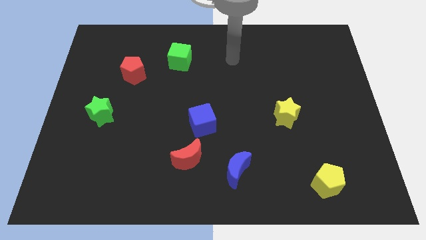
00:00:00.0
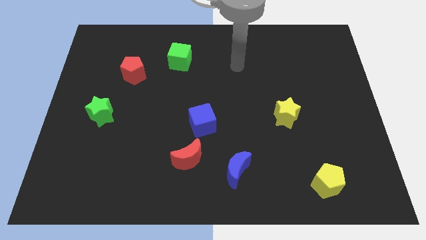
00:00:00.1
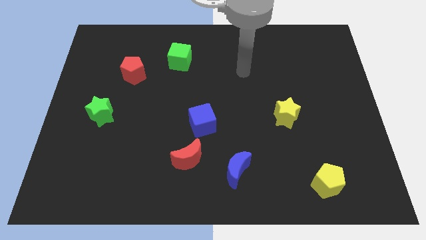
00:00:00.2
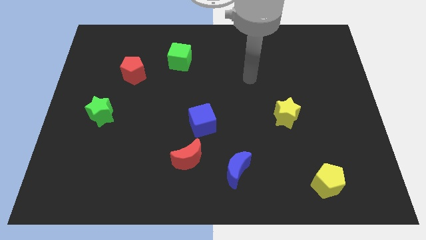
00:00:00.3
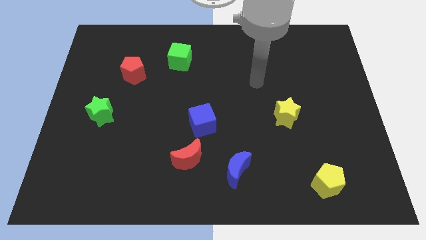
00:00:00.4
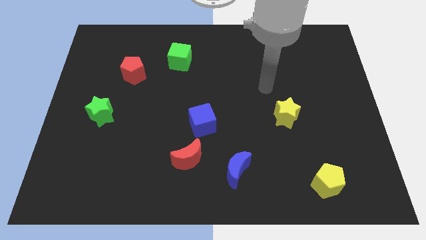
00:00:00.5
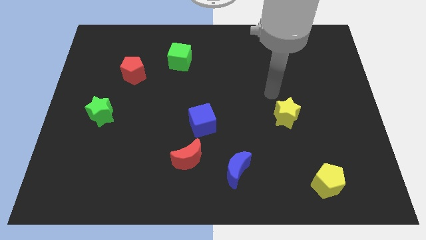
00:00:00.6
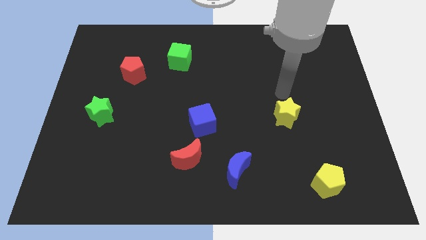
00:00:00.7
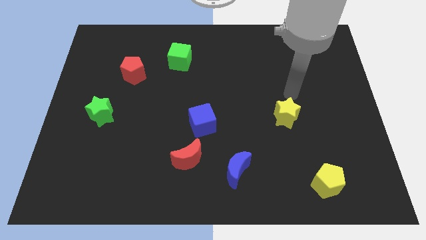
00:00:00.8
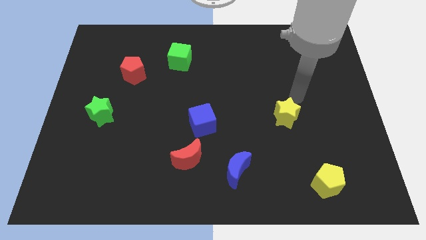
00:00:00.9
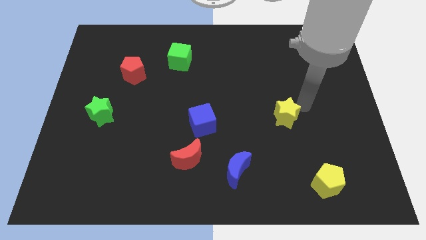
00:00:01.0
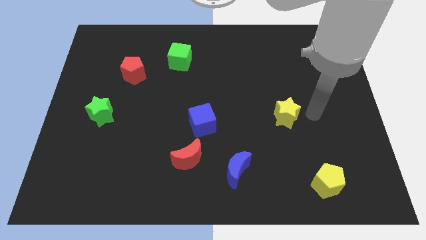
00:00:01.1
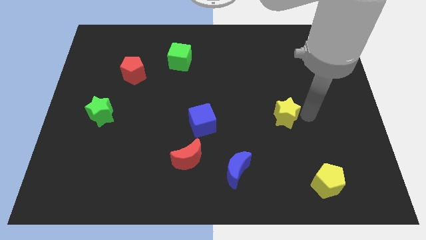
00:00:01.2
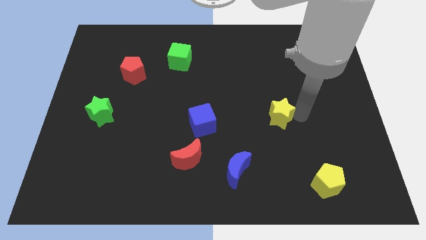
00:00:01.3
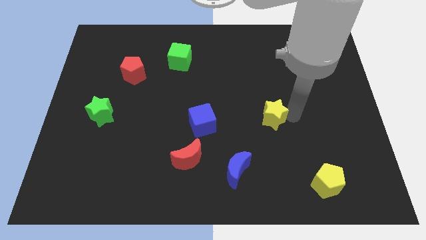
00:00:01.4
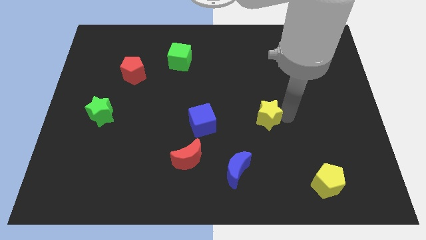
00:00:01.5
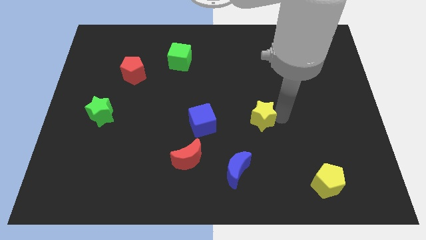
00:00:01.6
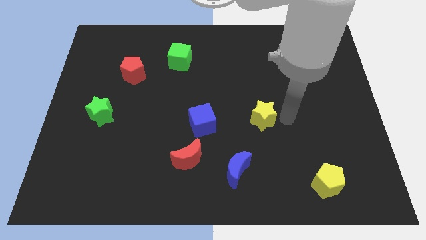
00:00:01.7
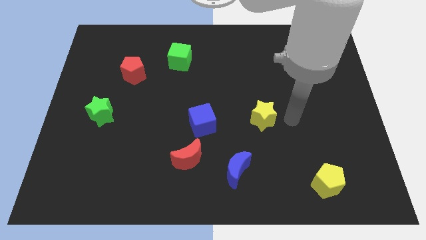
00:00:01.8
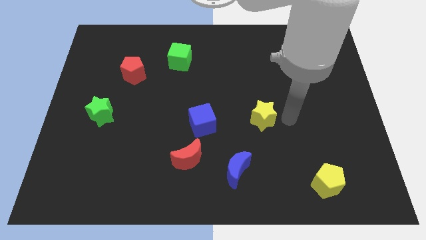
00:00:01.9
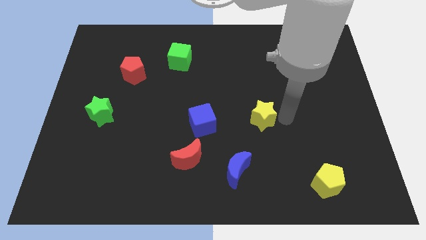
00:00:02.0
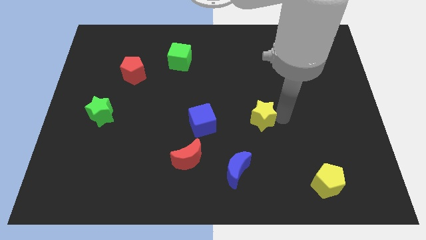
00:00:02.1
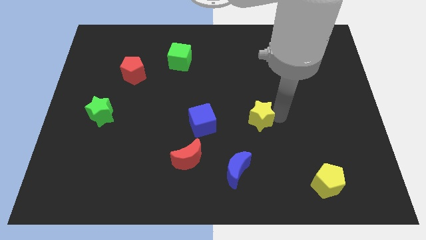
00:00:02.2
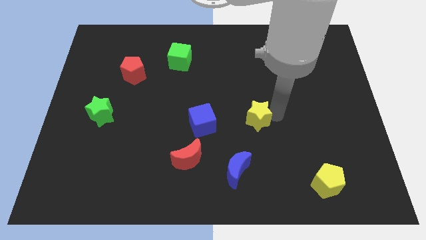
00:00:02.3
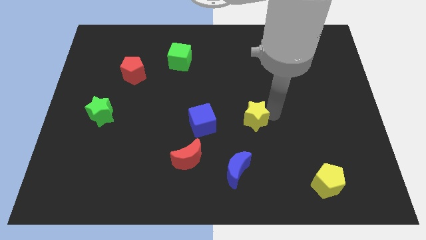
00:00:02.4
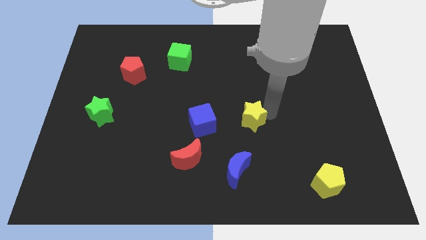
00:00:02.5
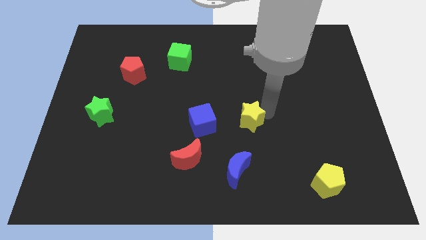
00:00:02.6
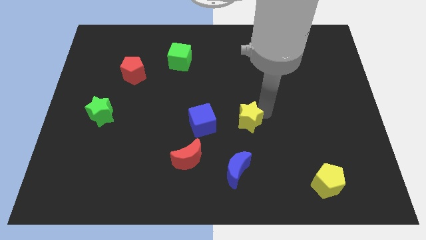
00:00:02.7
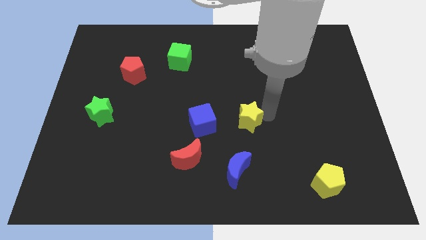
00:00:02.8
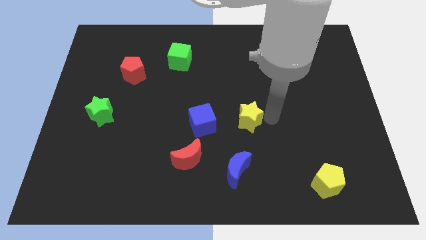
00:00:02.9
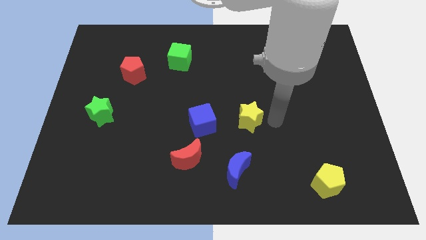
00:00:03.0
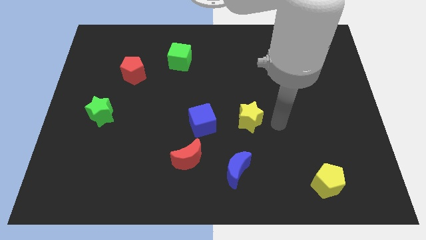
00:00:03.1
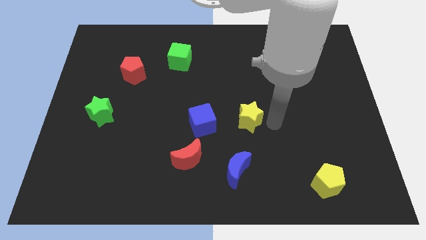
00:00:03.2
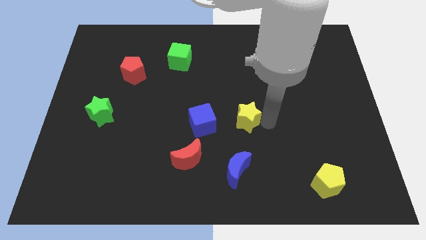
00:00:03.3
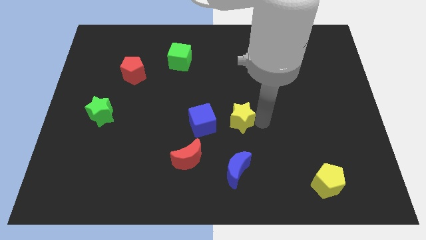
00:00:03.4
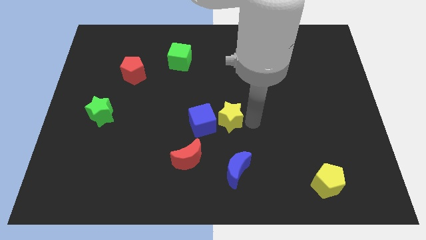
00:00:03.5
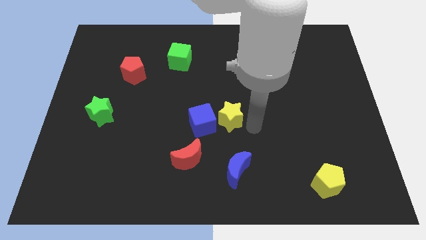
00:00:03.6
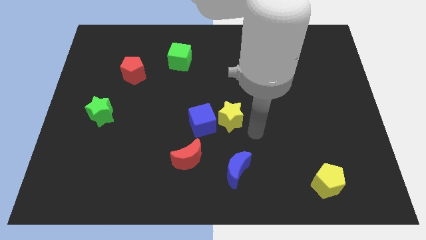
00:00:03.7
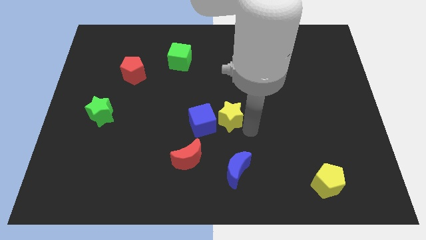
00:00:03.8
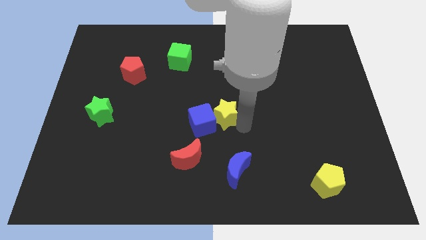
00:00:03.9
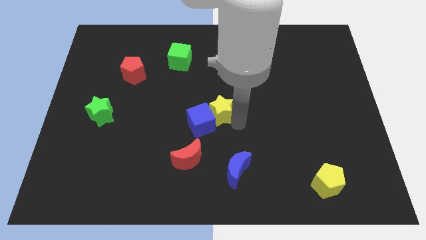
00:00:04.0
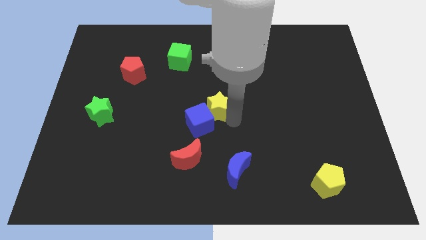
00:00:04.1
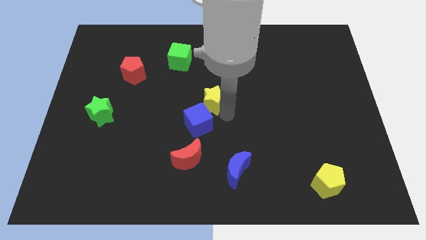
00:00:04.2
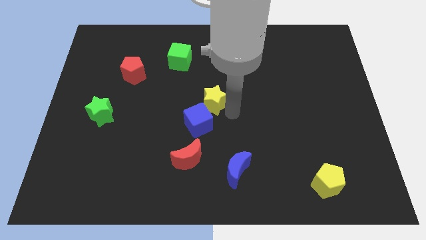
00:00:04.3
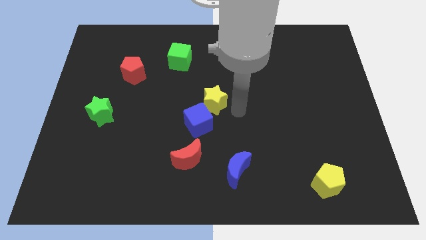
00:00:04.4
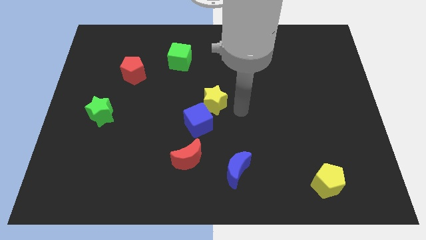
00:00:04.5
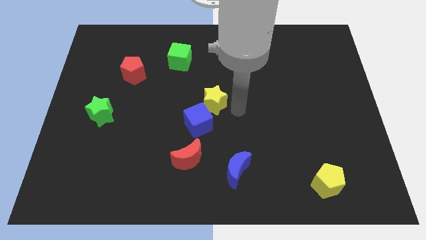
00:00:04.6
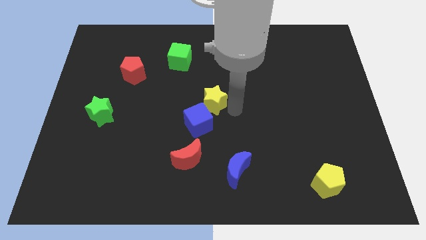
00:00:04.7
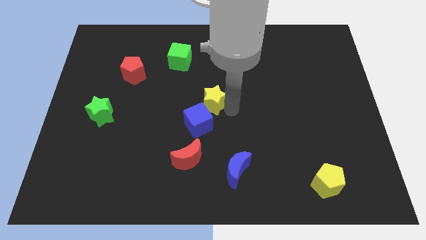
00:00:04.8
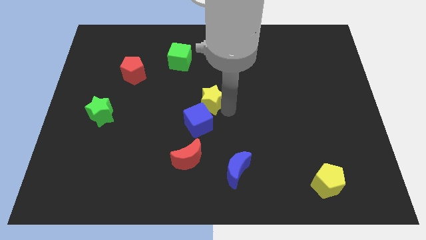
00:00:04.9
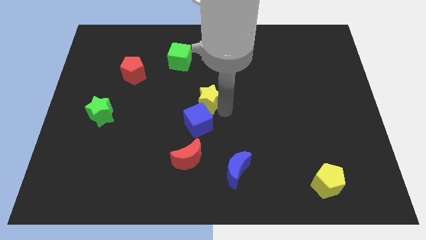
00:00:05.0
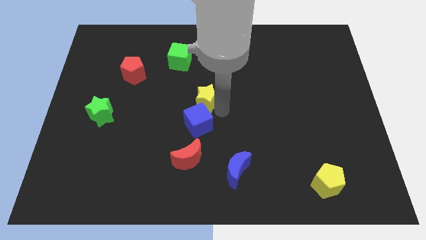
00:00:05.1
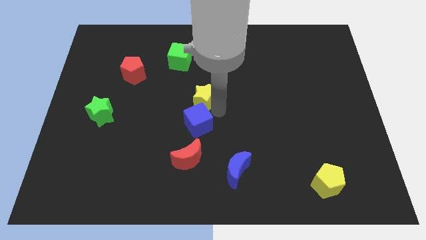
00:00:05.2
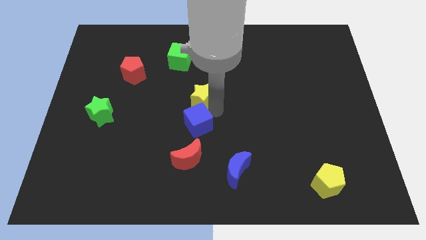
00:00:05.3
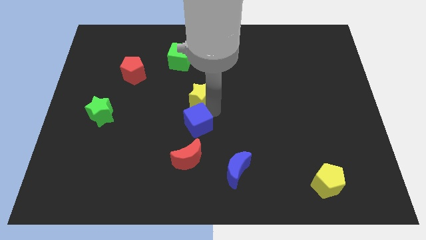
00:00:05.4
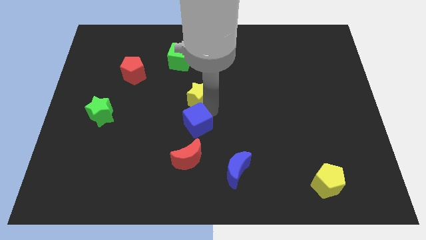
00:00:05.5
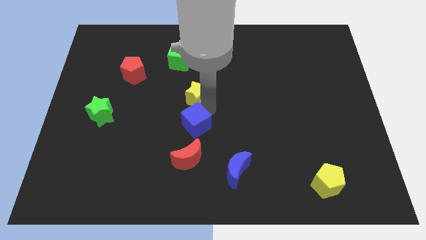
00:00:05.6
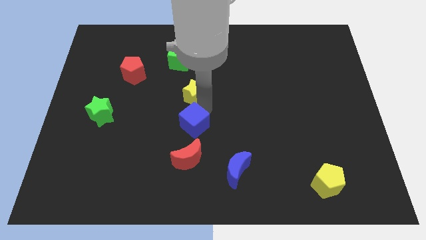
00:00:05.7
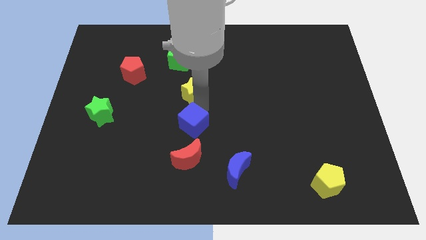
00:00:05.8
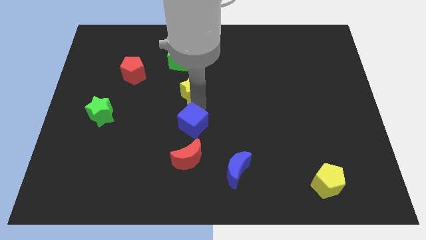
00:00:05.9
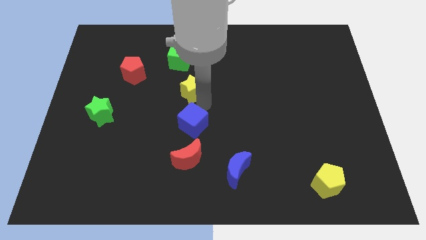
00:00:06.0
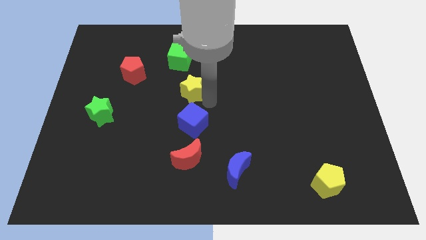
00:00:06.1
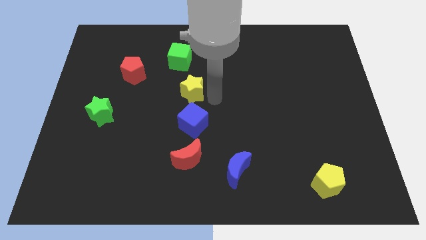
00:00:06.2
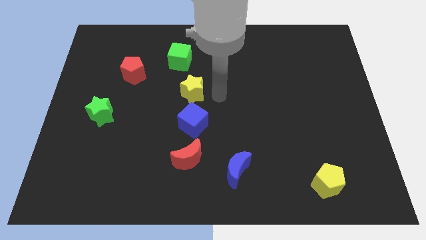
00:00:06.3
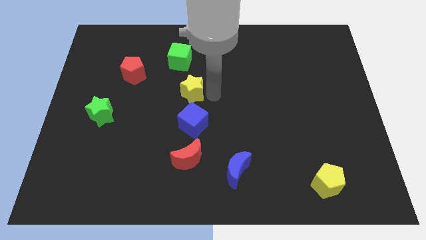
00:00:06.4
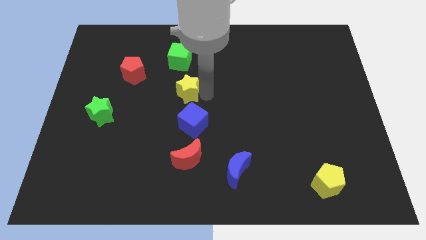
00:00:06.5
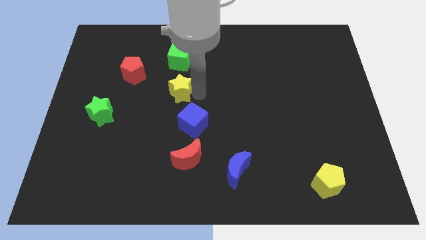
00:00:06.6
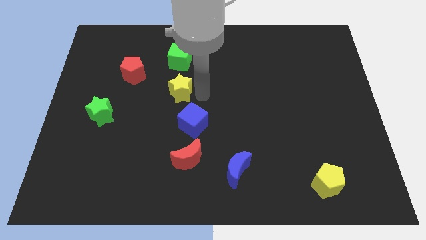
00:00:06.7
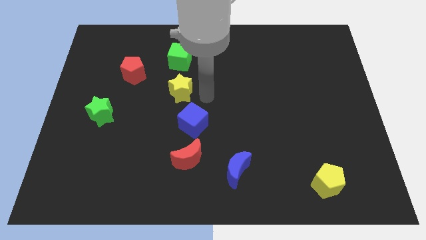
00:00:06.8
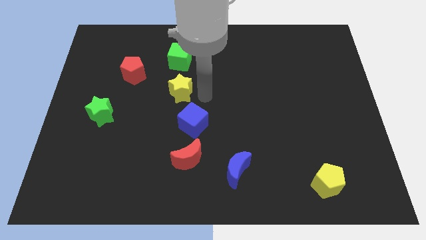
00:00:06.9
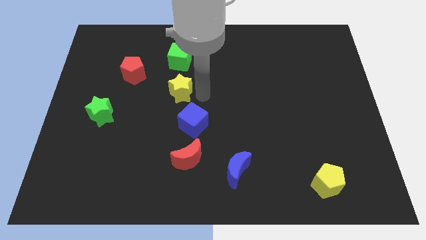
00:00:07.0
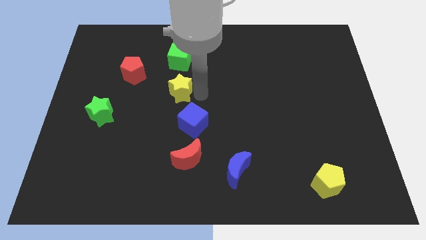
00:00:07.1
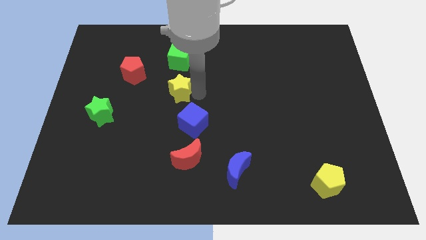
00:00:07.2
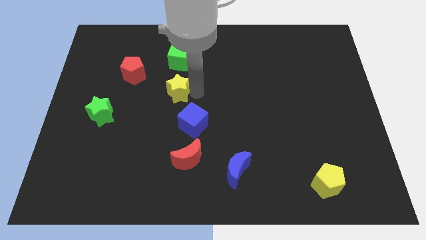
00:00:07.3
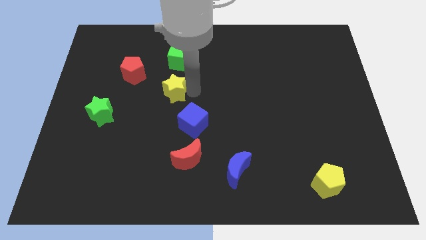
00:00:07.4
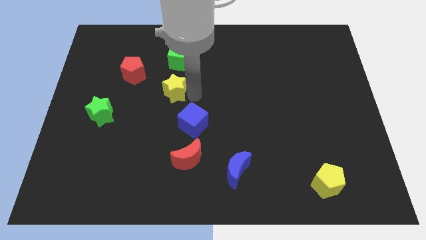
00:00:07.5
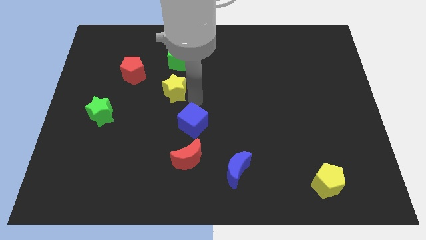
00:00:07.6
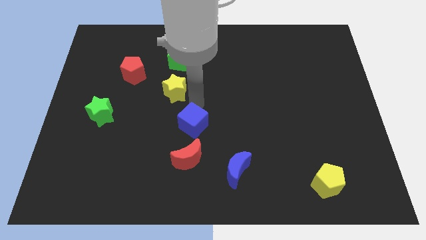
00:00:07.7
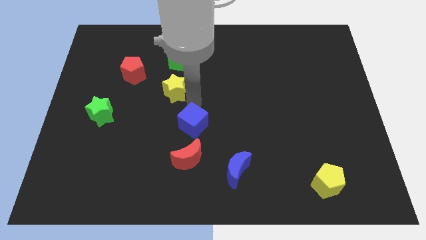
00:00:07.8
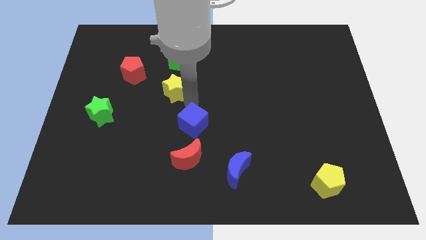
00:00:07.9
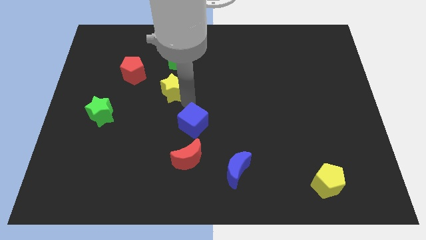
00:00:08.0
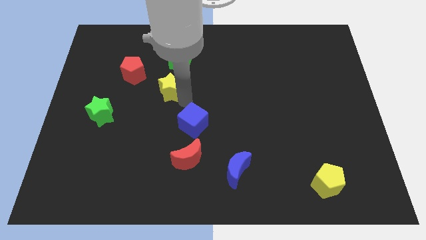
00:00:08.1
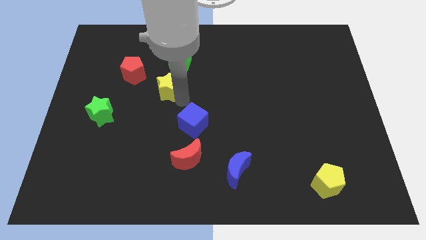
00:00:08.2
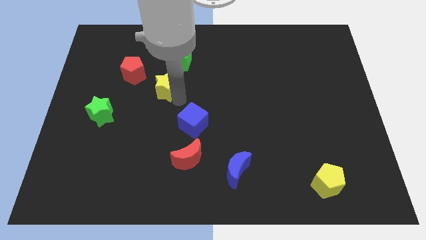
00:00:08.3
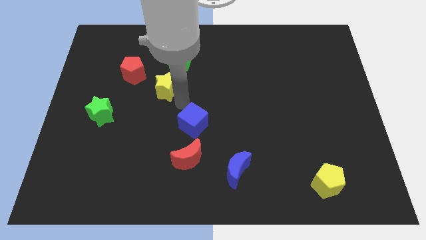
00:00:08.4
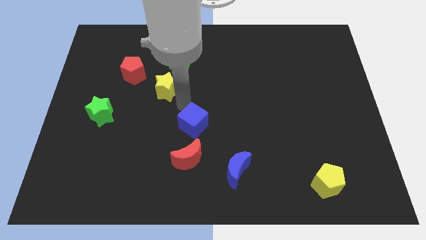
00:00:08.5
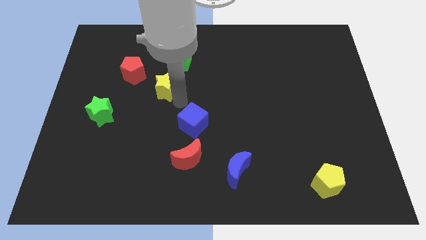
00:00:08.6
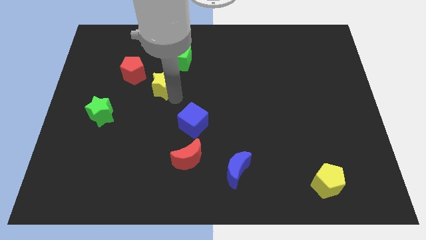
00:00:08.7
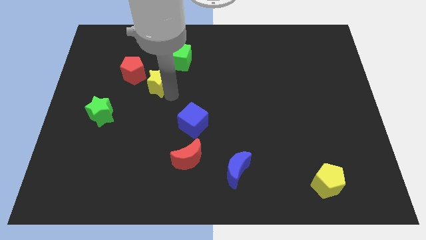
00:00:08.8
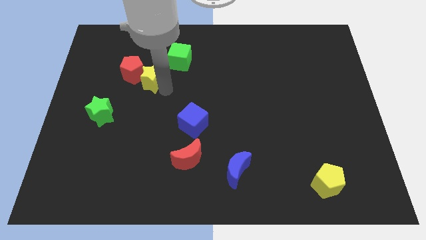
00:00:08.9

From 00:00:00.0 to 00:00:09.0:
move the yellow star towards the red pentagon
